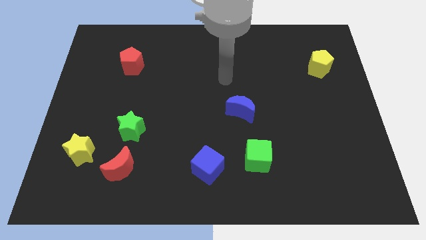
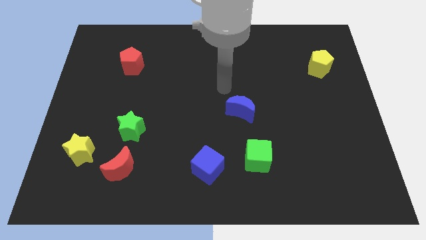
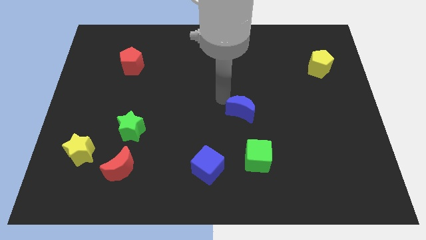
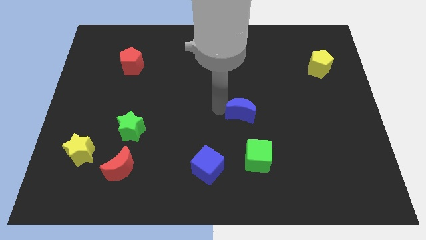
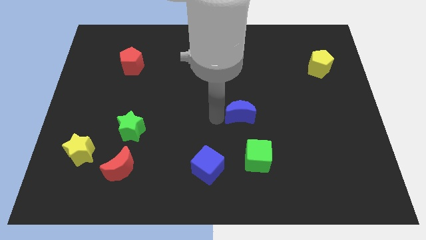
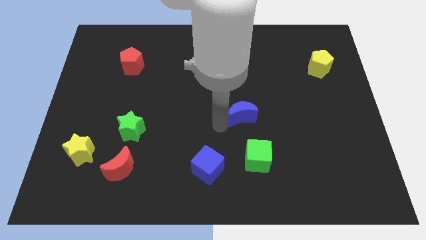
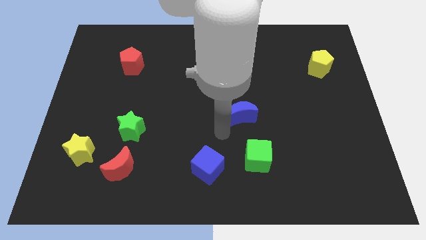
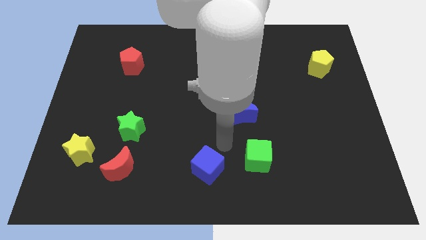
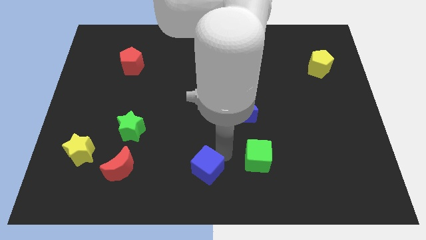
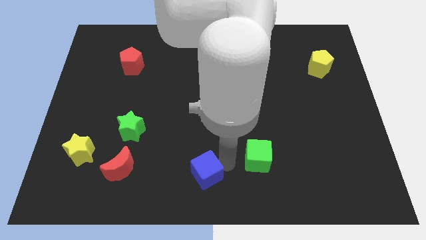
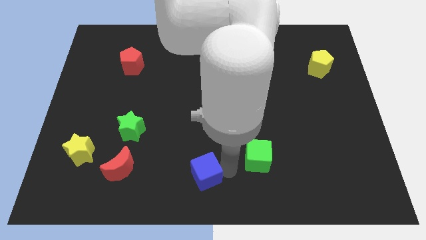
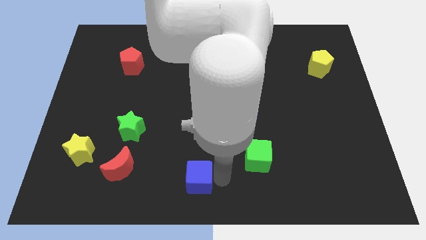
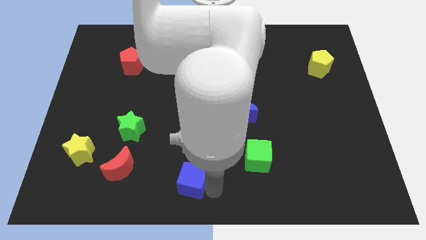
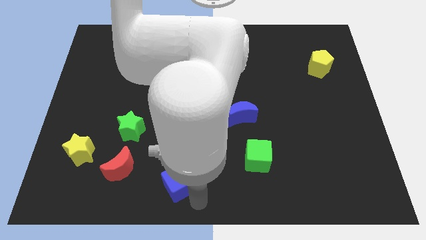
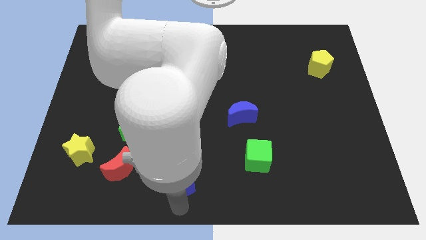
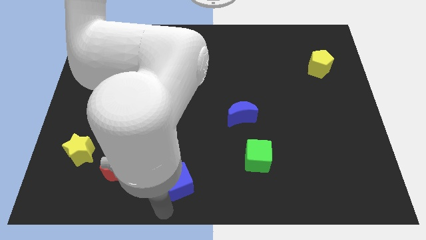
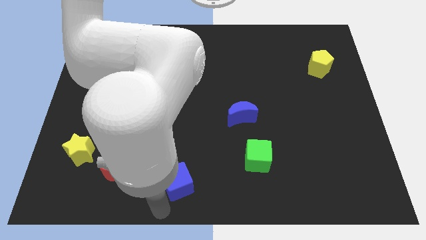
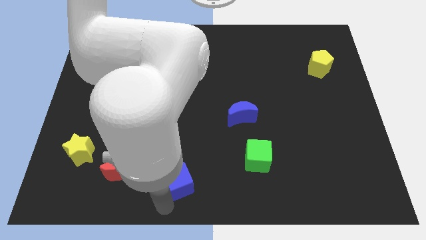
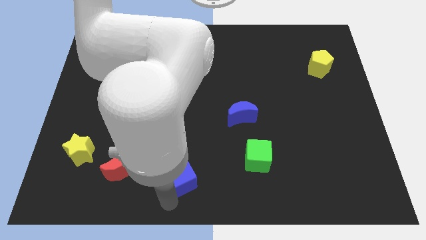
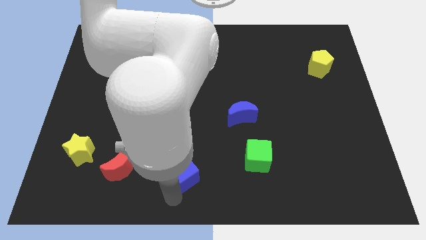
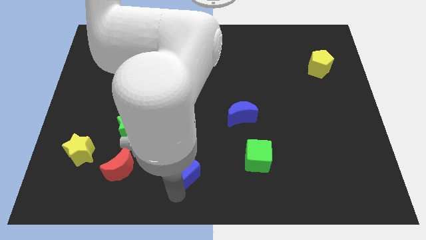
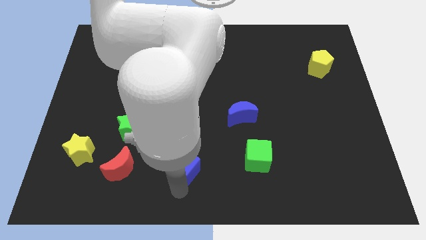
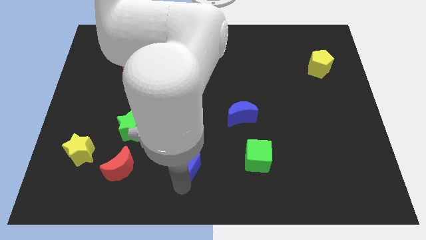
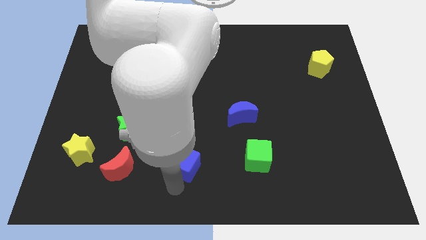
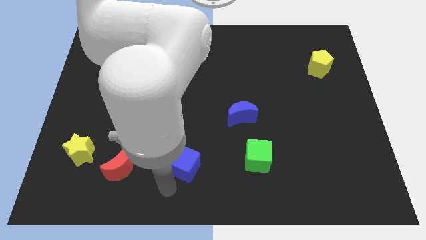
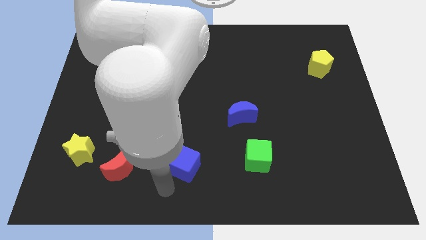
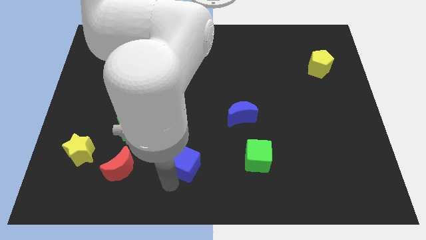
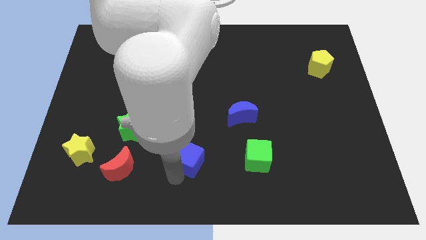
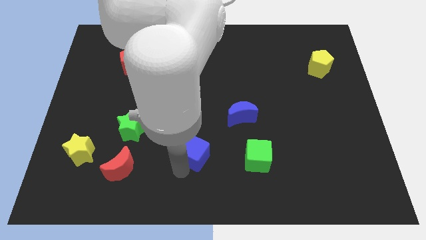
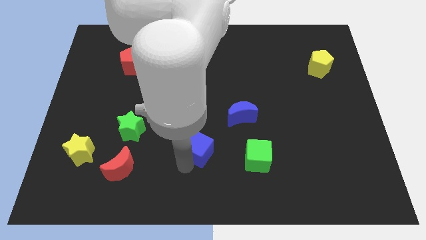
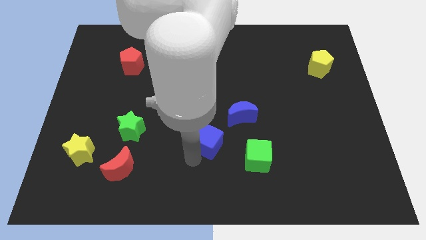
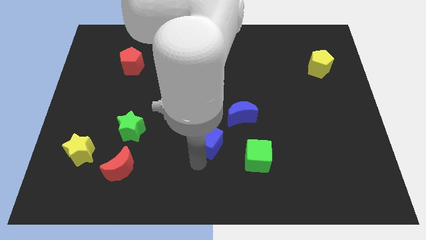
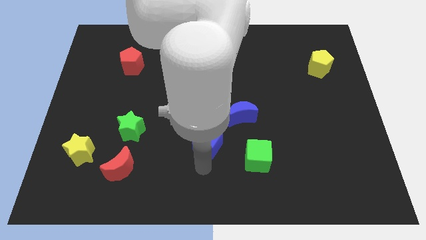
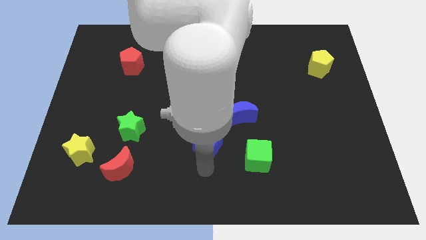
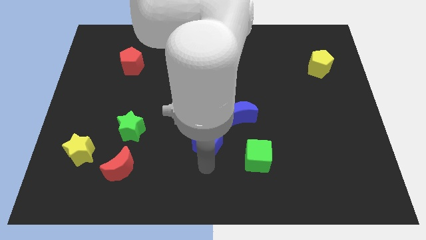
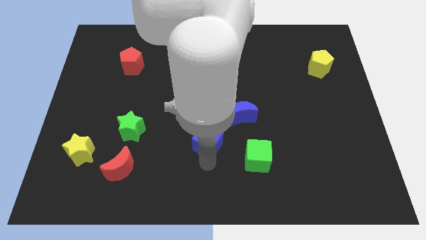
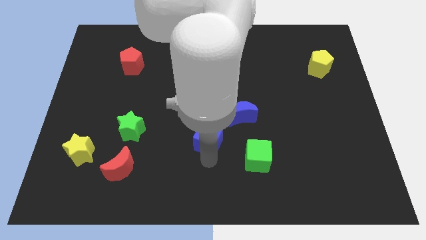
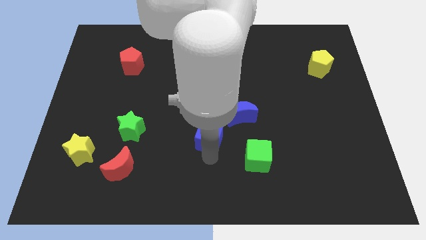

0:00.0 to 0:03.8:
slide the blue cube a little bit up

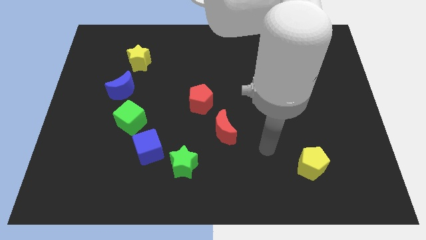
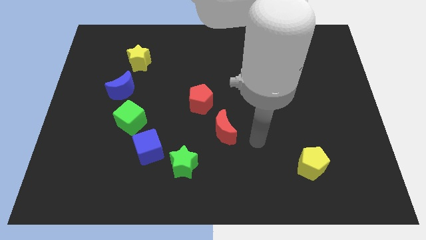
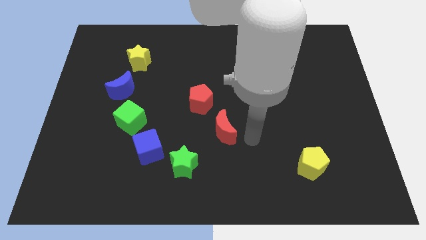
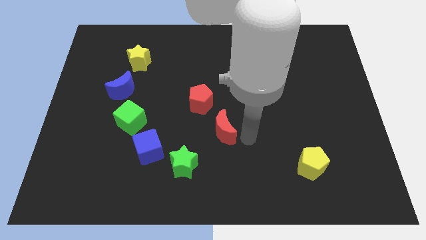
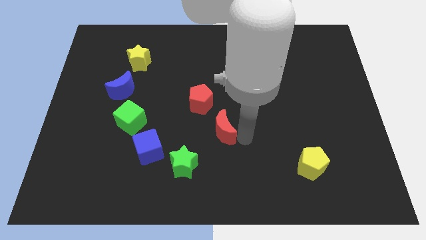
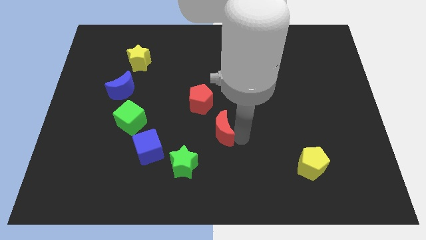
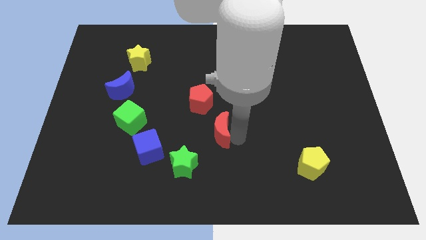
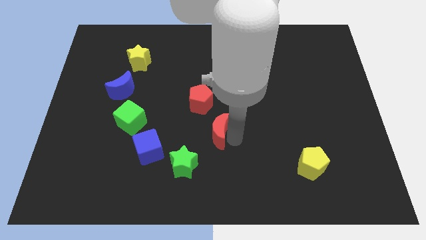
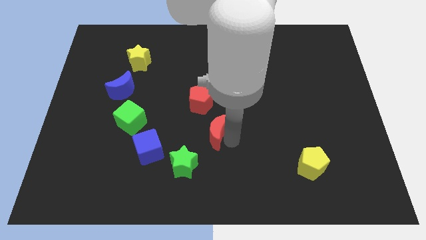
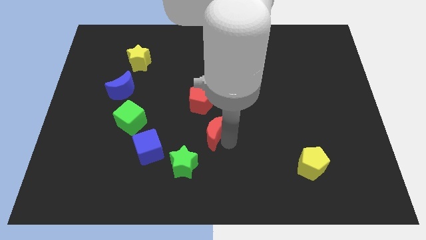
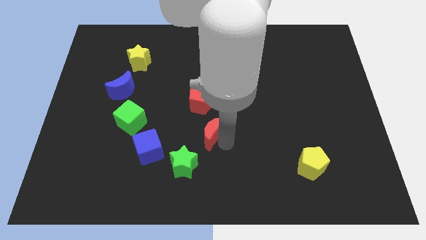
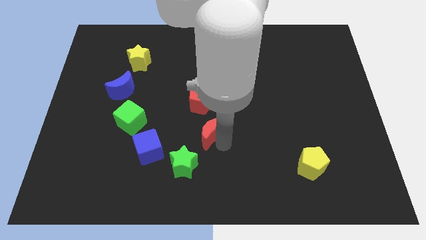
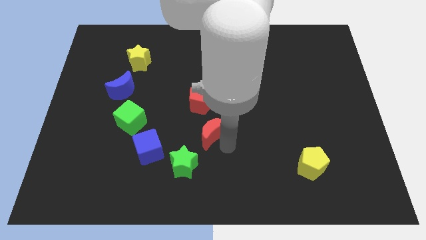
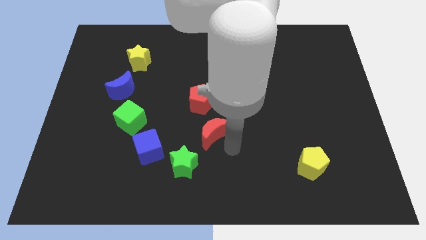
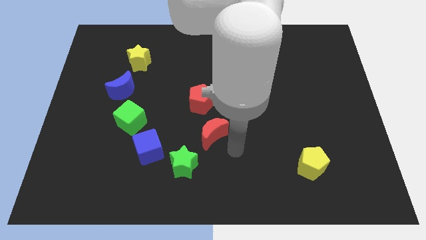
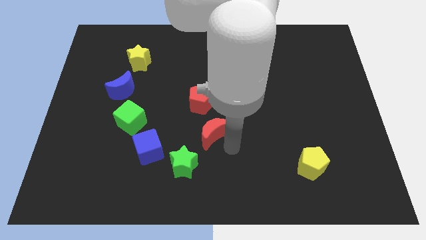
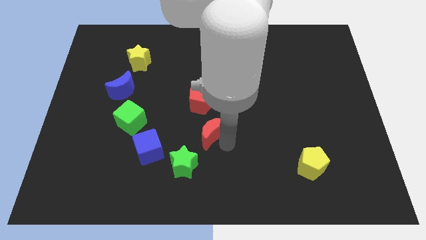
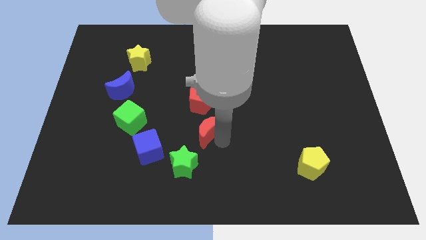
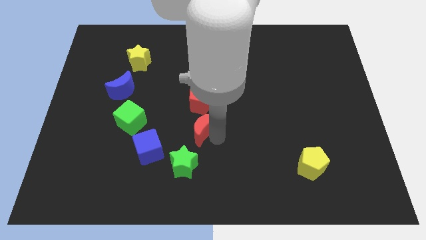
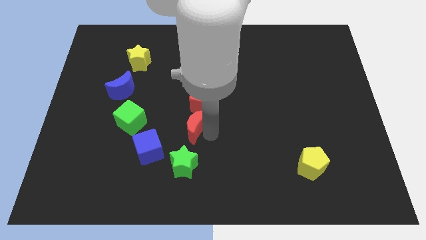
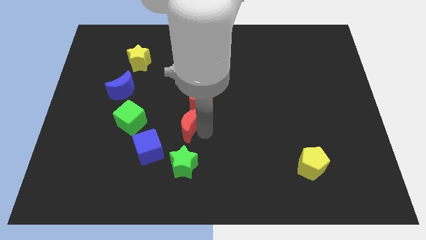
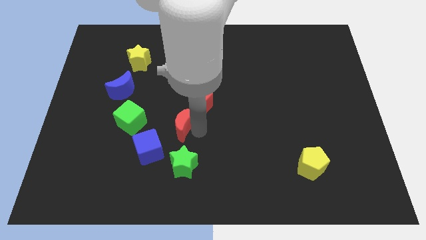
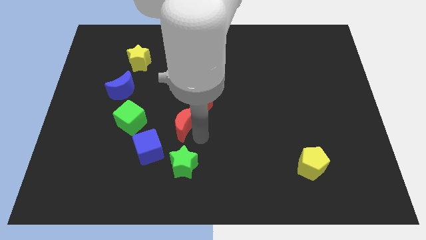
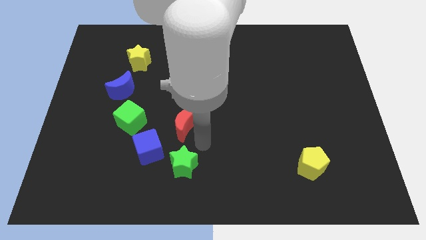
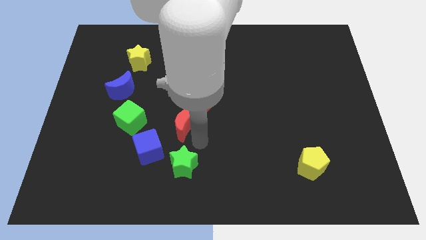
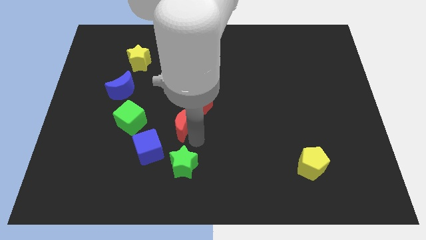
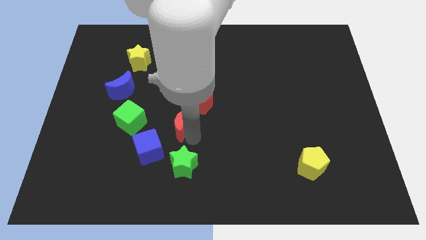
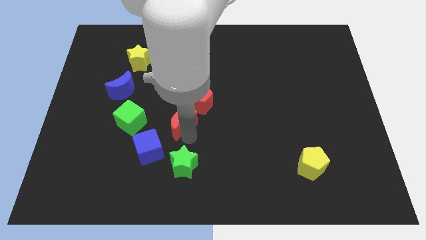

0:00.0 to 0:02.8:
slightly move the red moon upwards and to the left

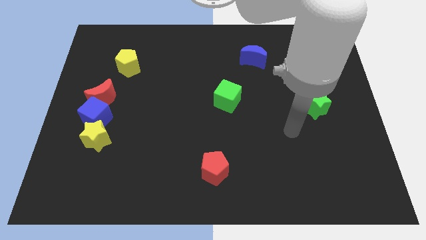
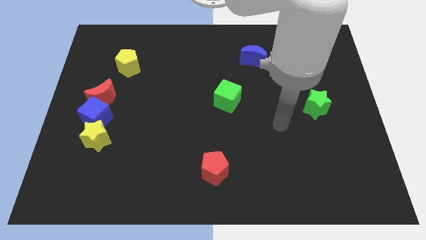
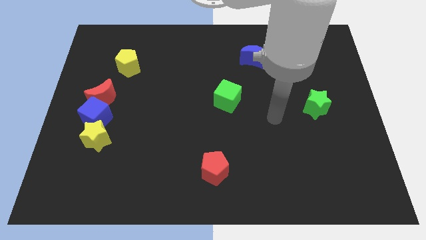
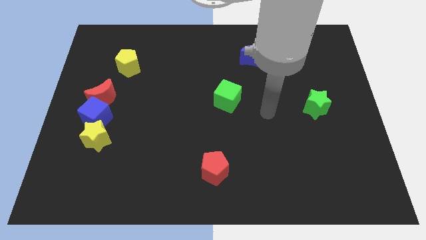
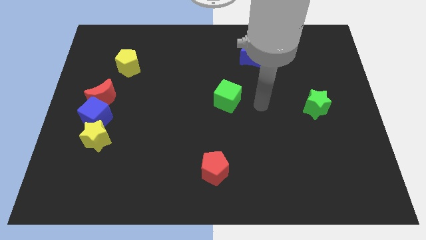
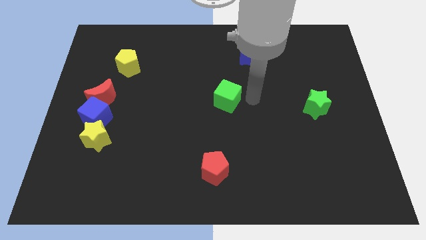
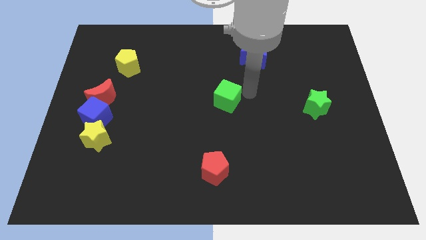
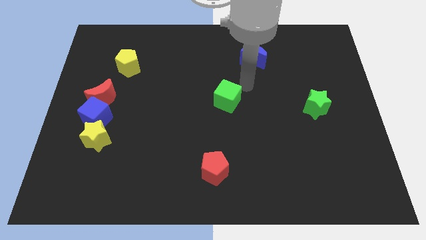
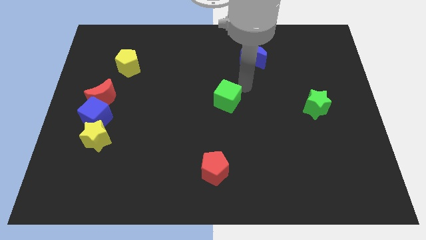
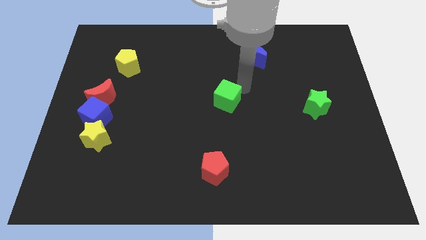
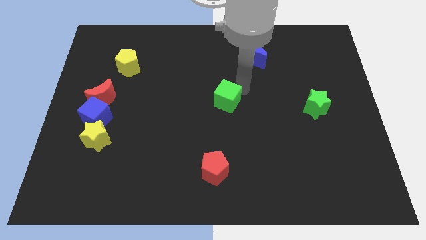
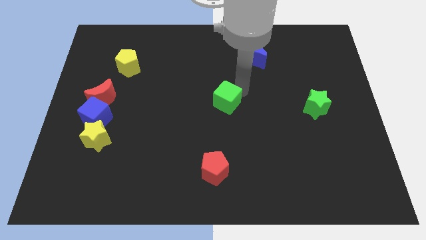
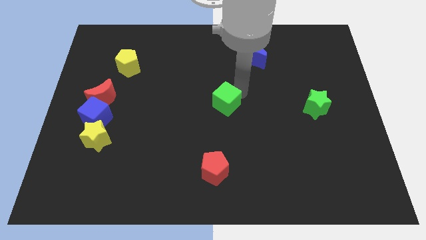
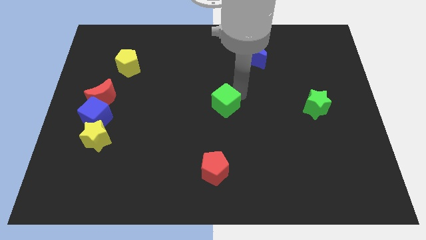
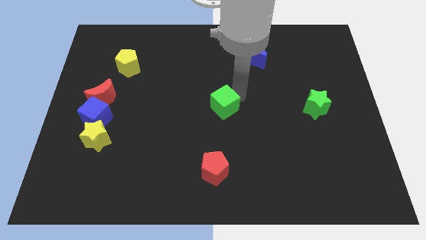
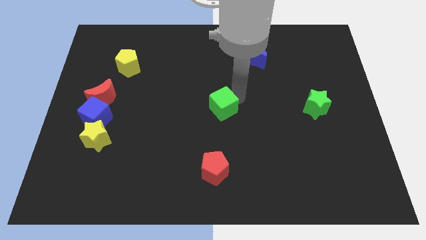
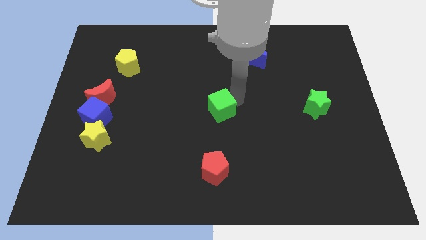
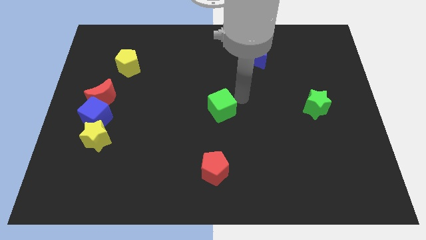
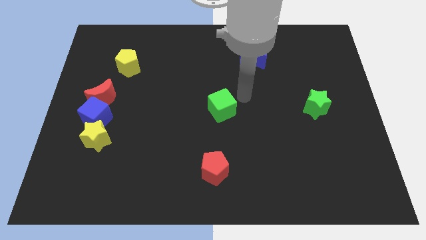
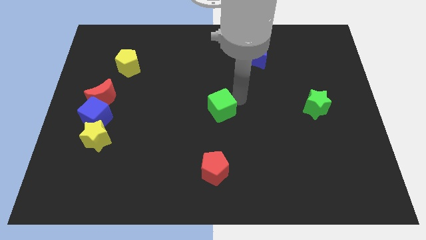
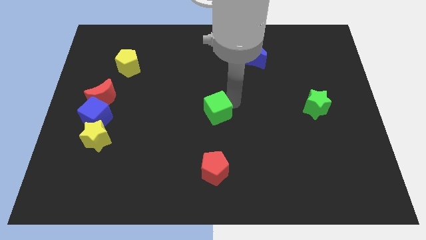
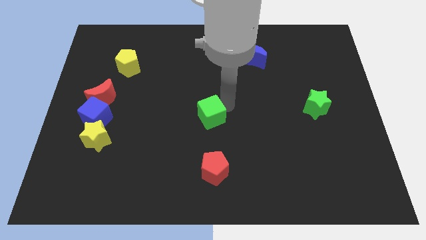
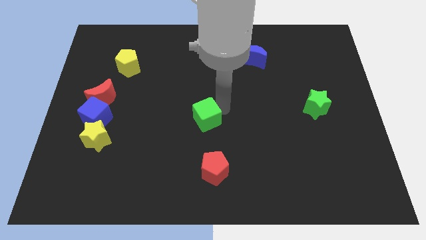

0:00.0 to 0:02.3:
slide the green cube downwards and then left a bit
